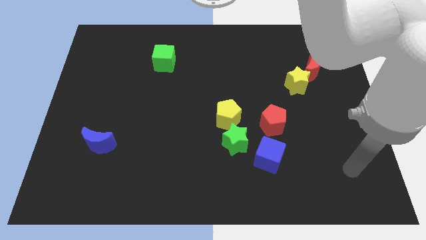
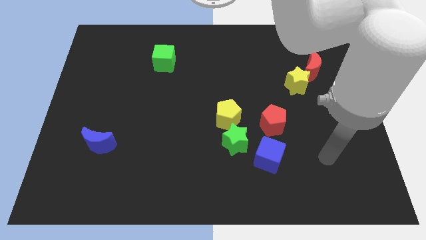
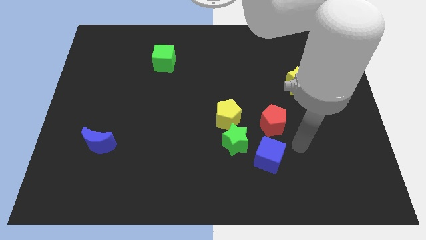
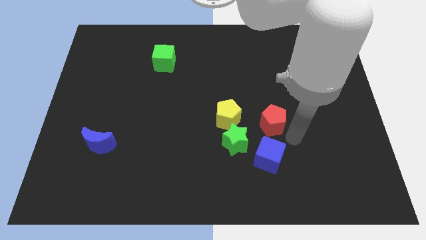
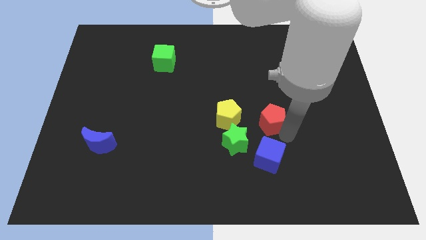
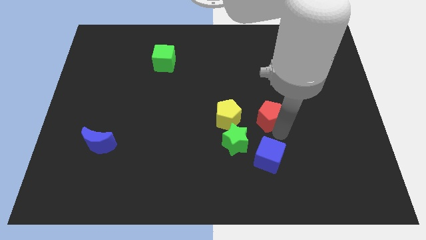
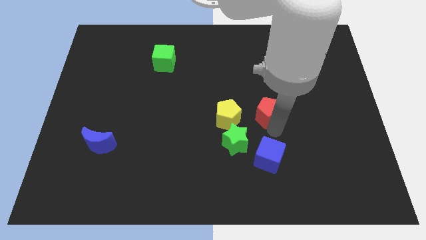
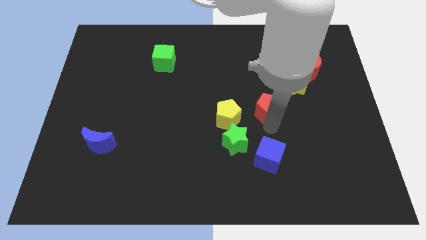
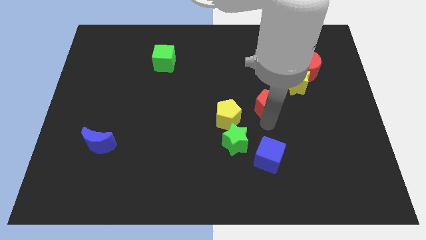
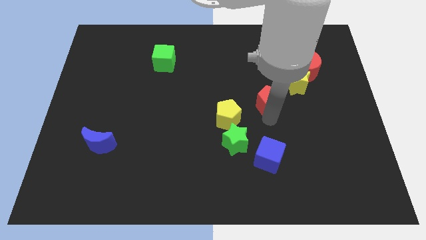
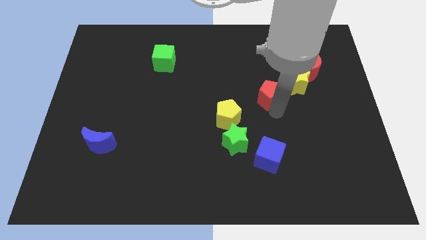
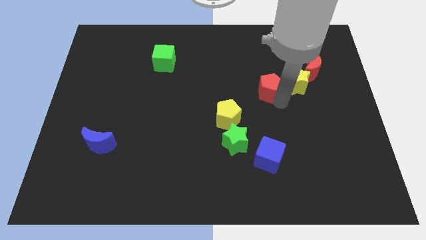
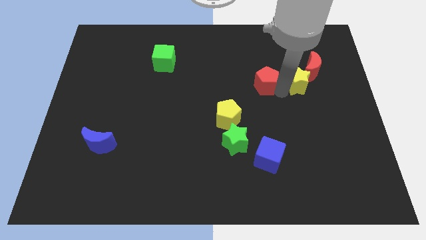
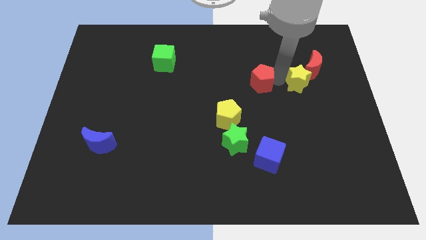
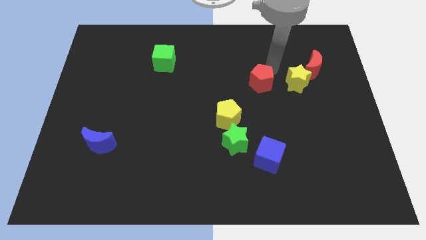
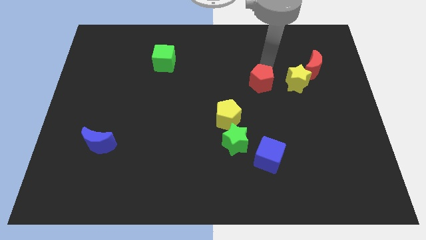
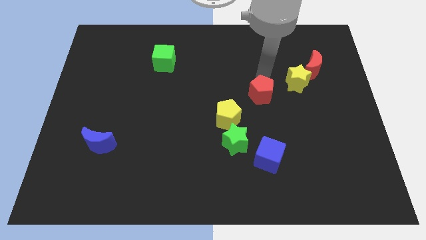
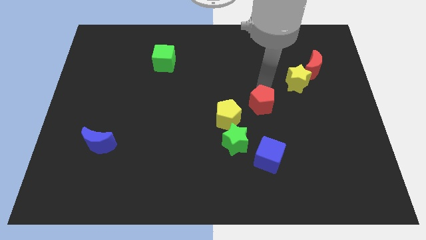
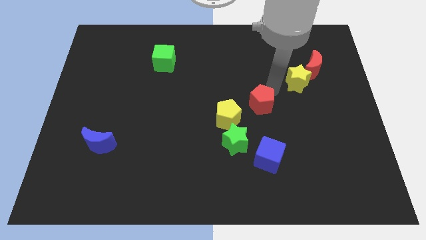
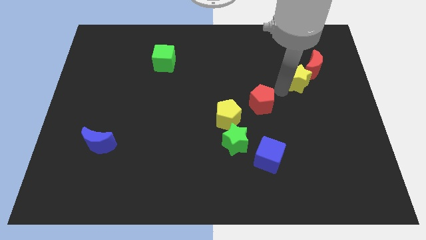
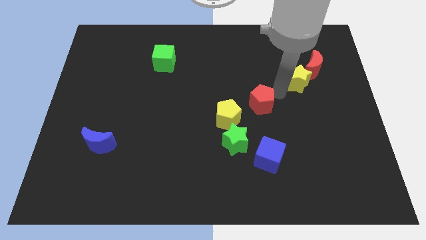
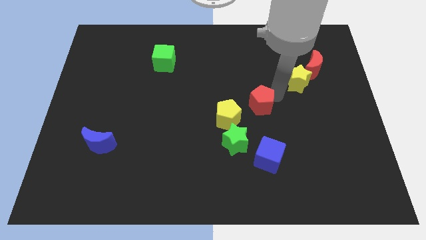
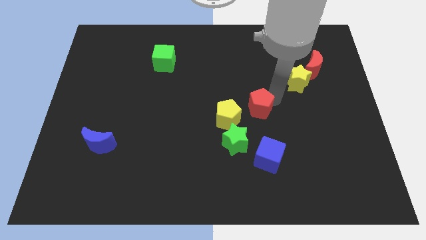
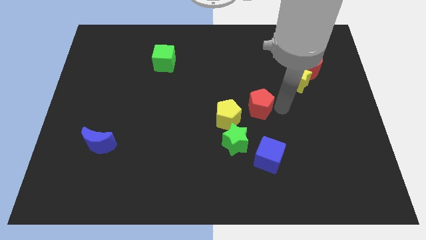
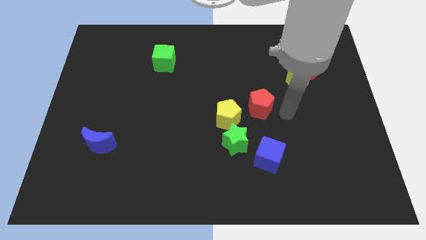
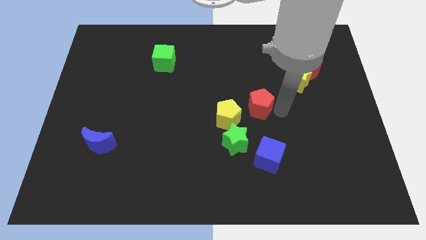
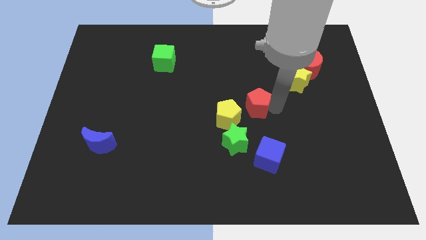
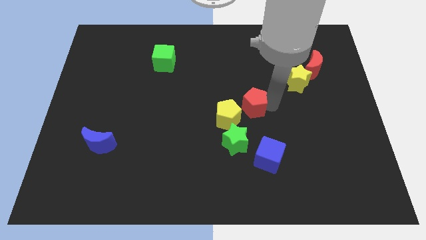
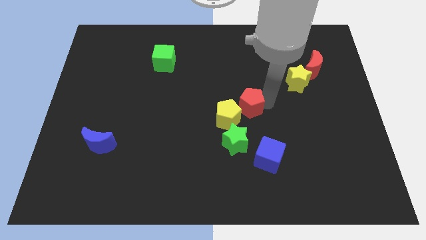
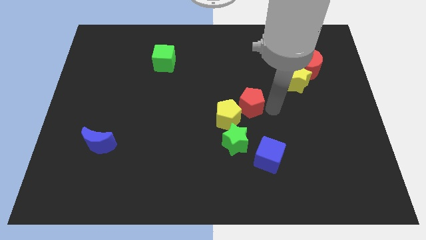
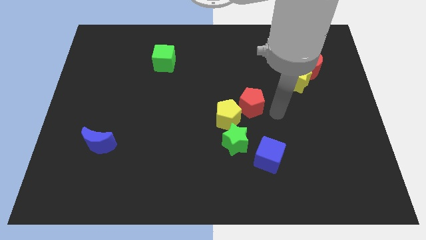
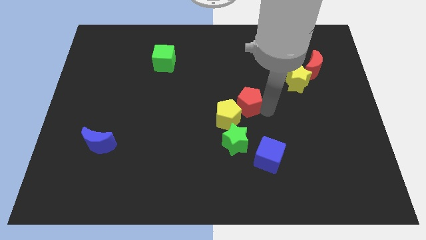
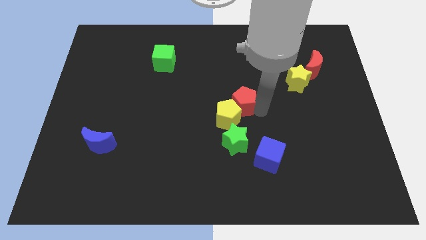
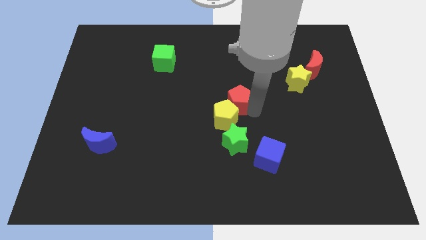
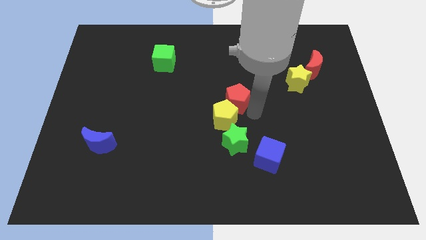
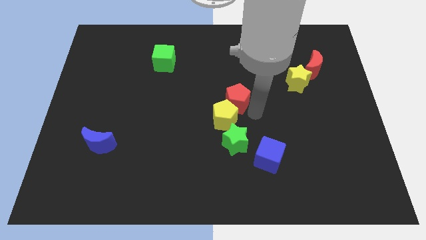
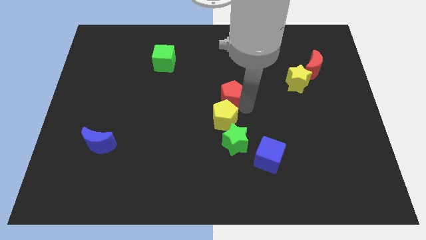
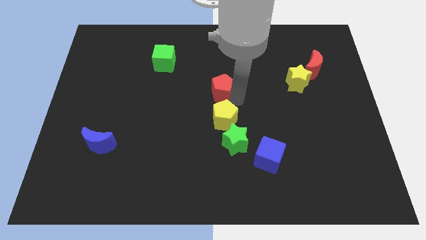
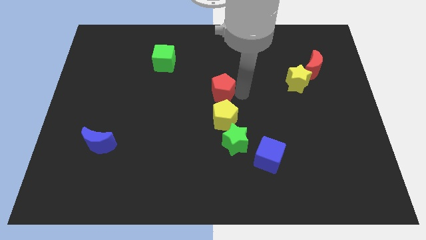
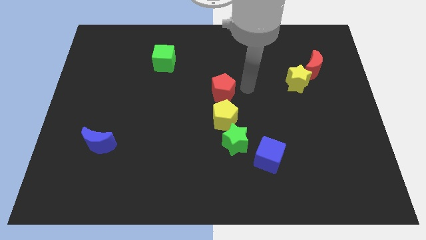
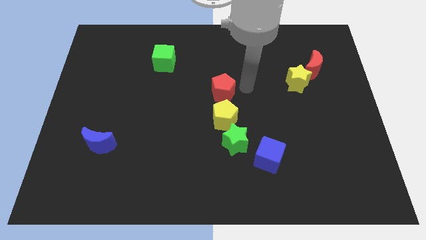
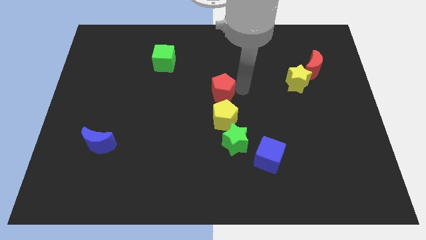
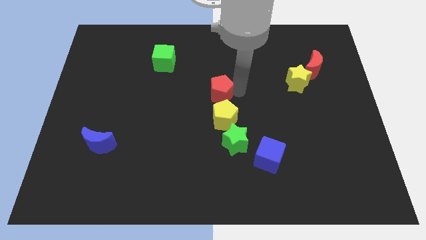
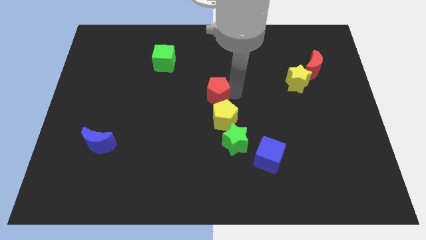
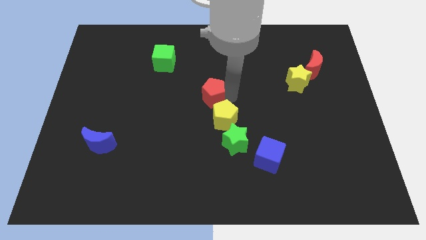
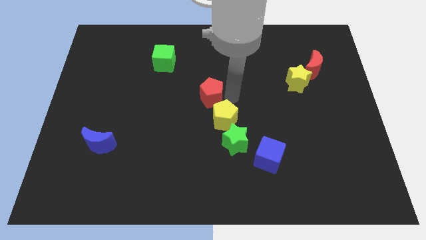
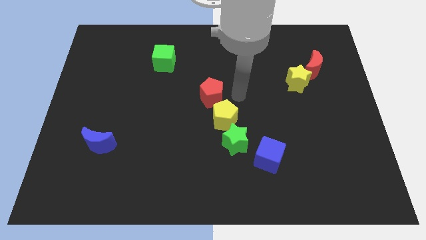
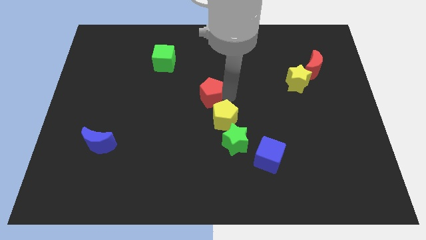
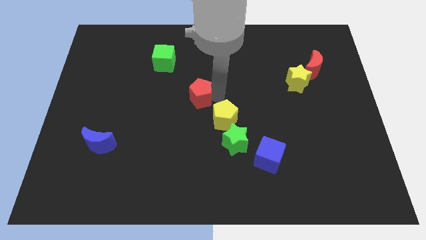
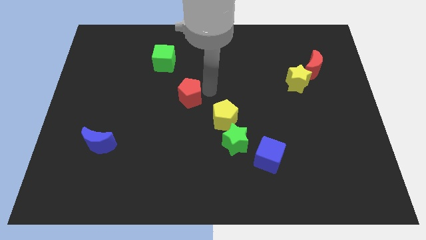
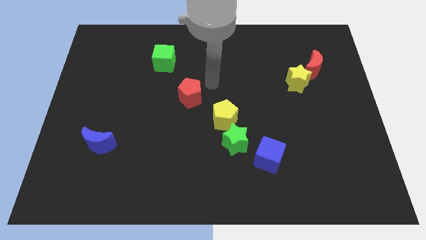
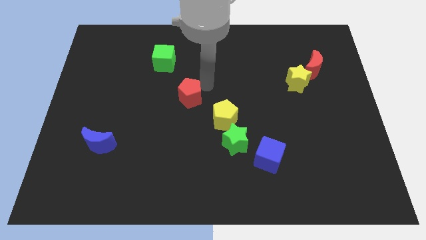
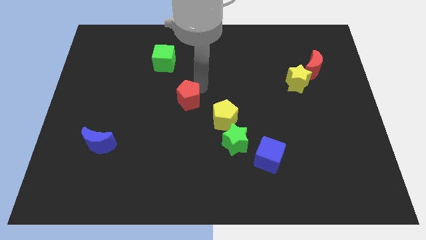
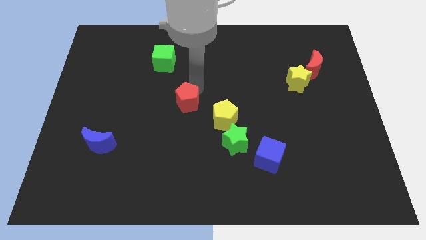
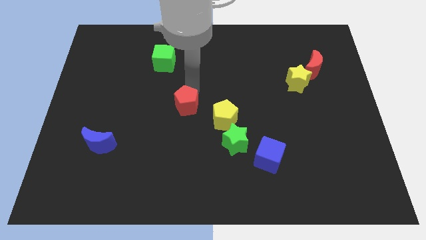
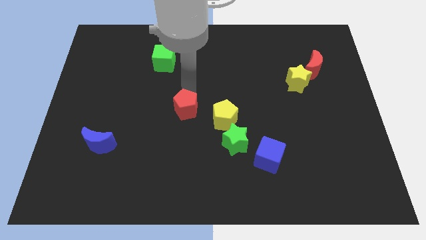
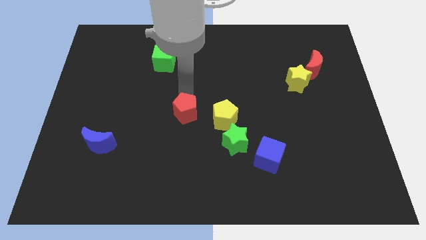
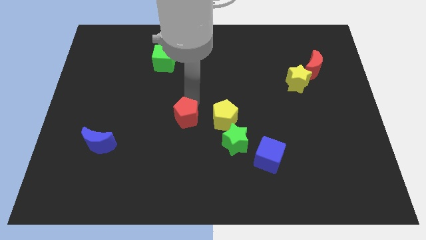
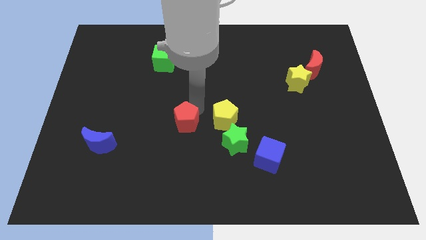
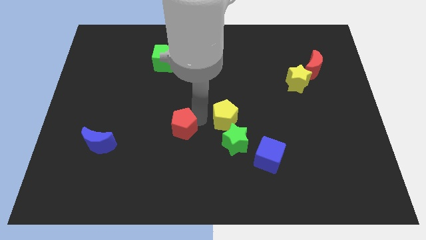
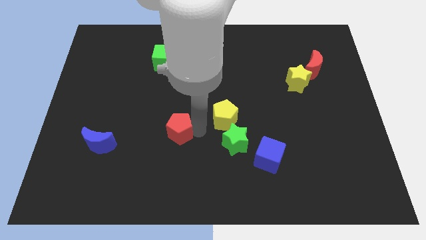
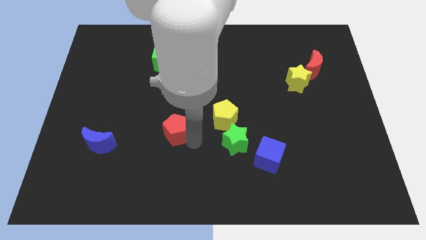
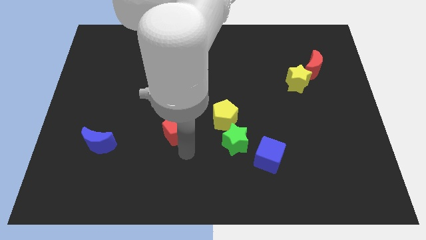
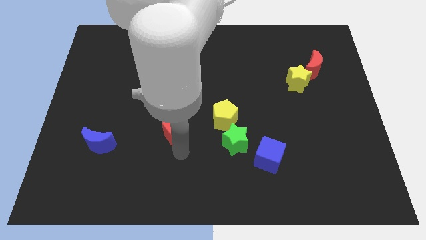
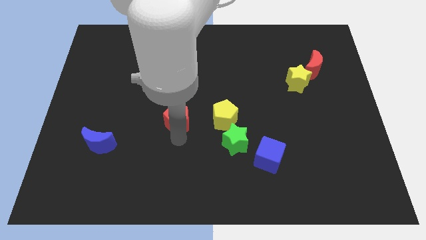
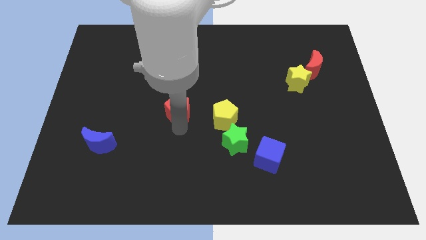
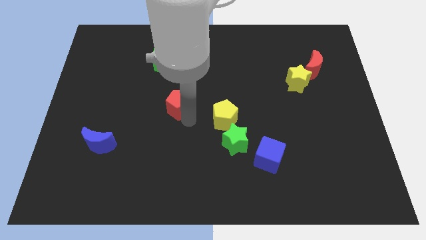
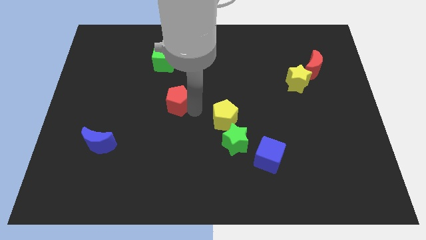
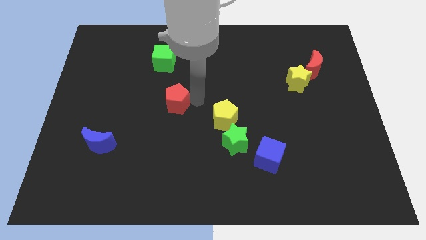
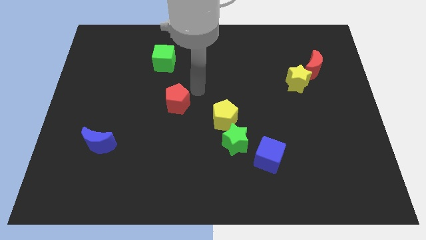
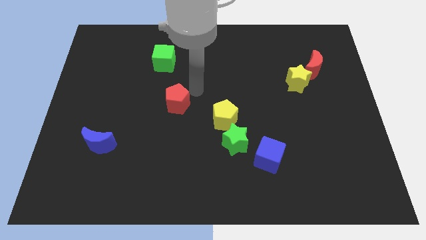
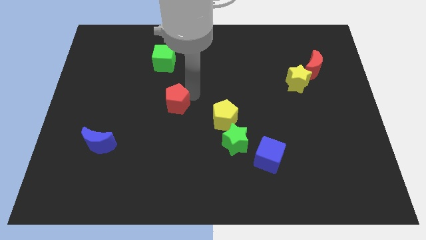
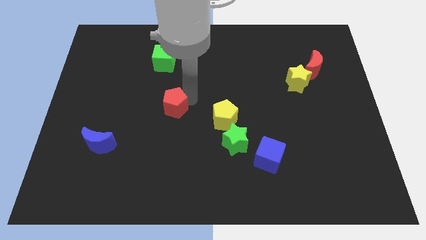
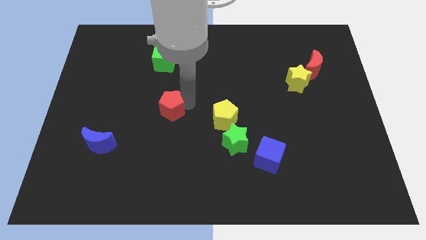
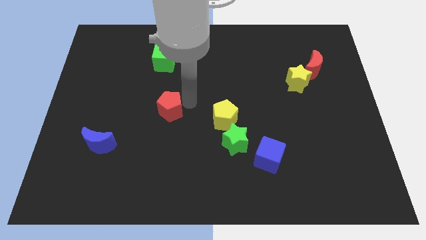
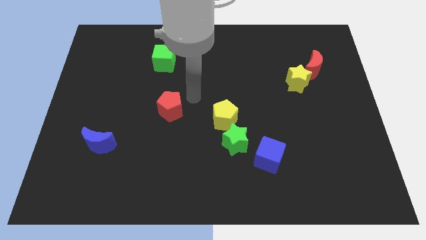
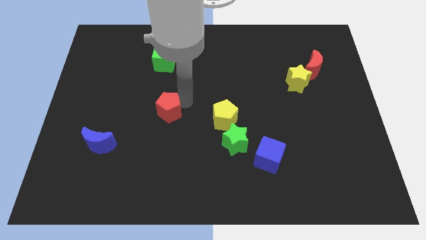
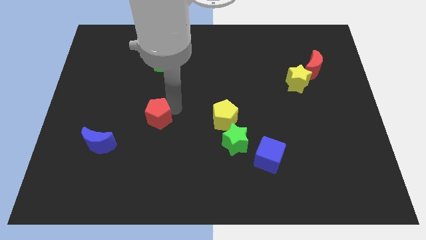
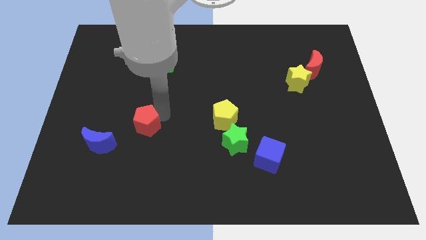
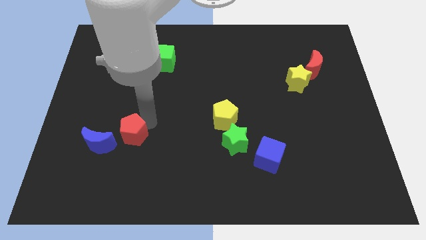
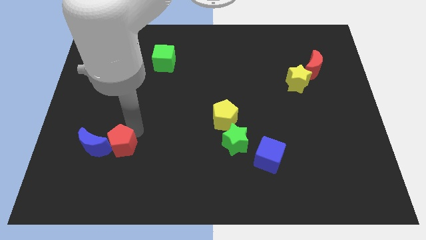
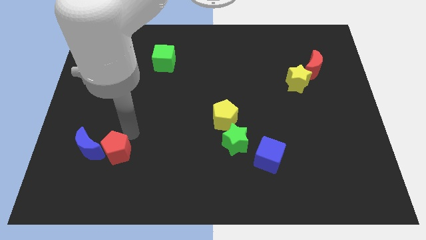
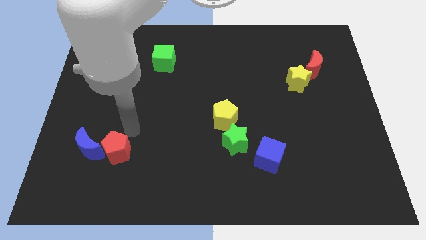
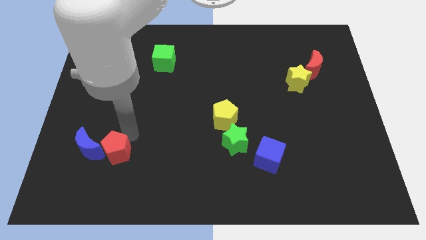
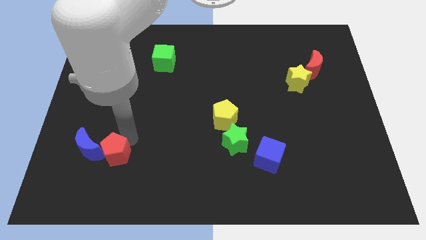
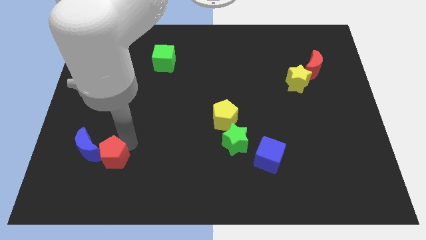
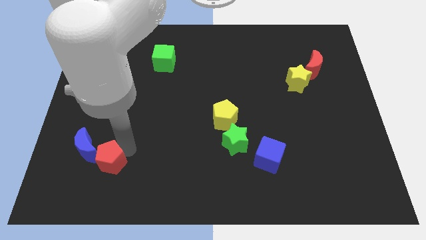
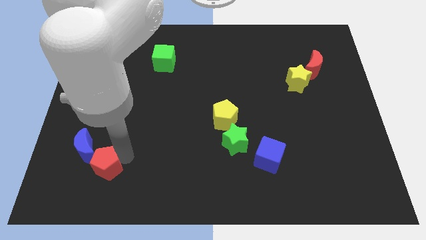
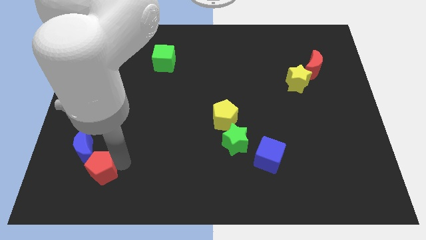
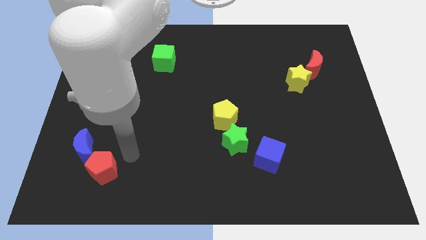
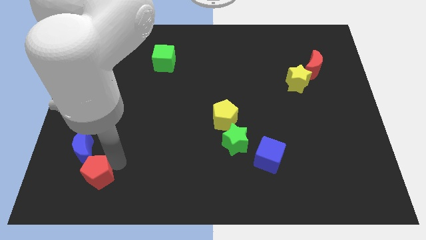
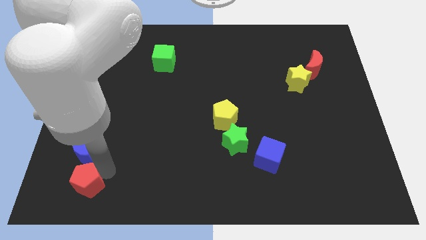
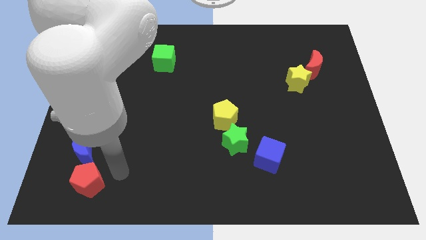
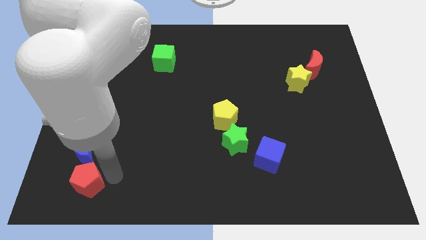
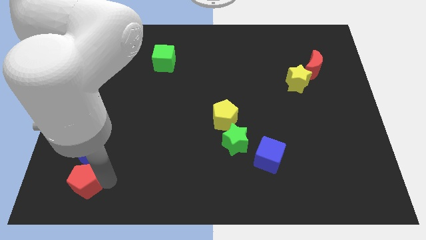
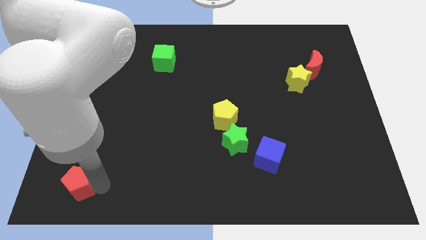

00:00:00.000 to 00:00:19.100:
slide the red pentagon to the lower left corner
